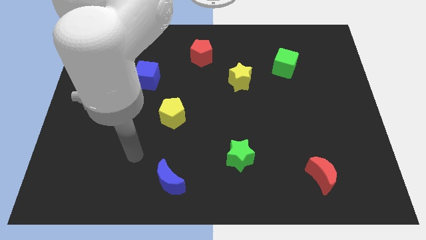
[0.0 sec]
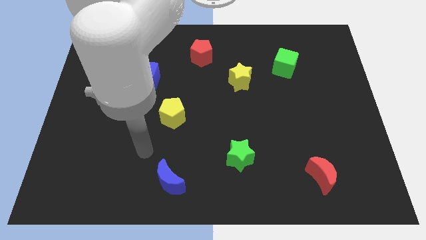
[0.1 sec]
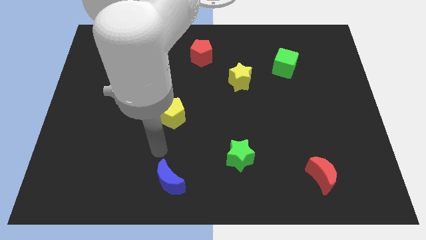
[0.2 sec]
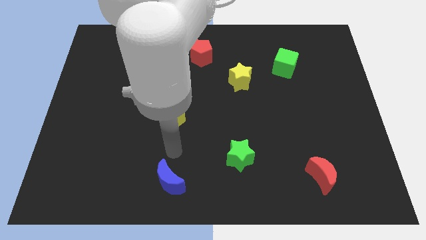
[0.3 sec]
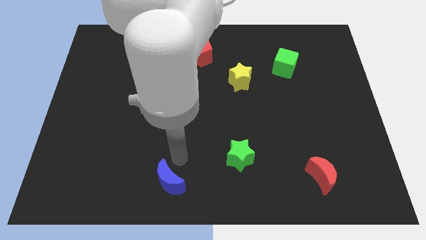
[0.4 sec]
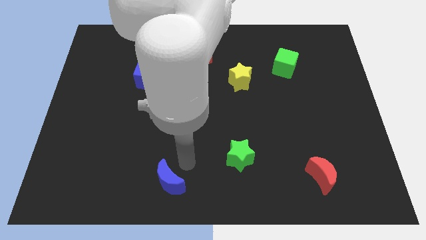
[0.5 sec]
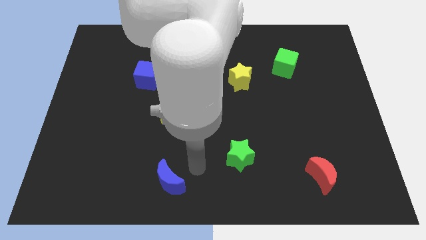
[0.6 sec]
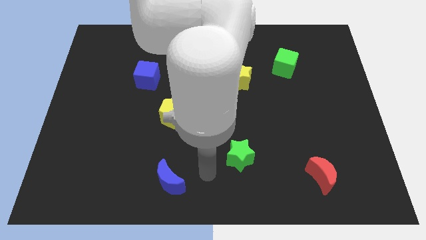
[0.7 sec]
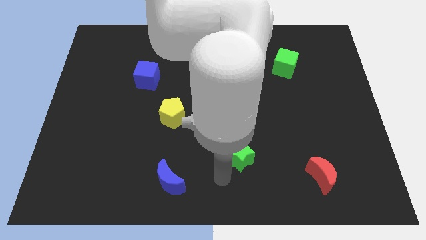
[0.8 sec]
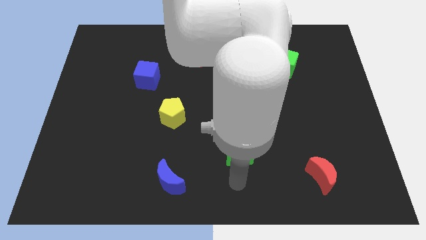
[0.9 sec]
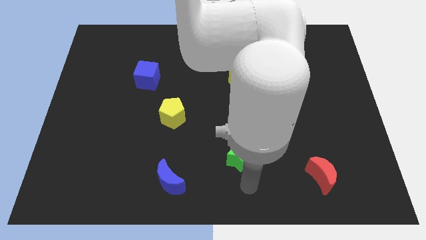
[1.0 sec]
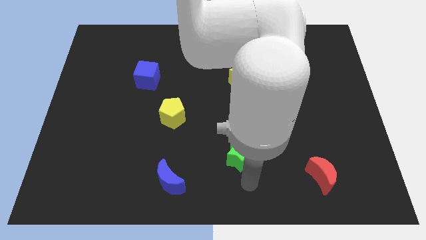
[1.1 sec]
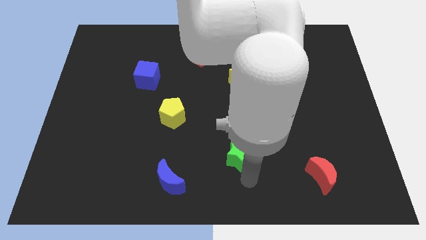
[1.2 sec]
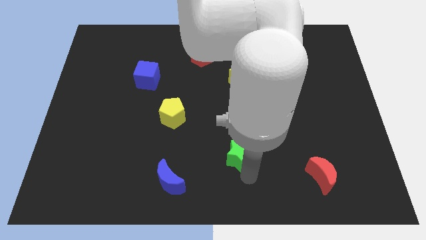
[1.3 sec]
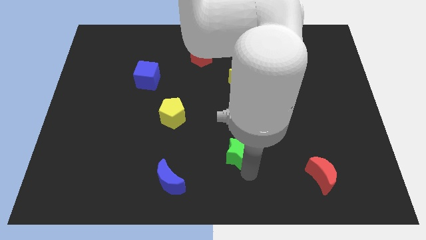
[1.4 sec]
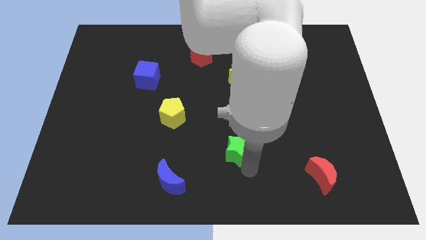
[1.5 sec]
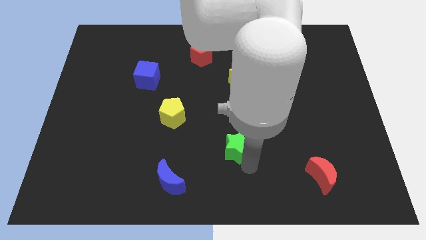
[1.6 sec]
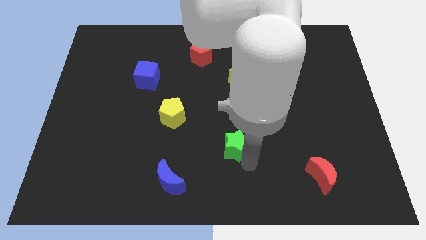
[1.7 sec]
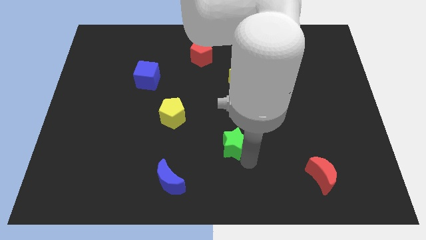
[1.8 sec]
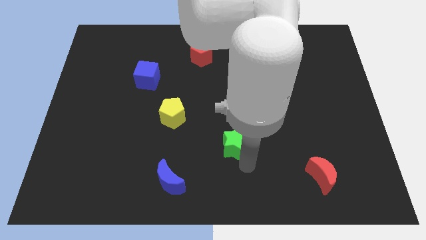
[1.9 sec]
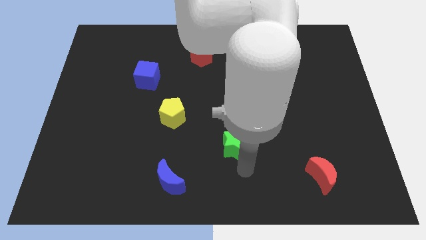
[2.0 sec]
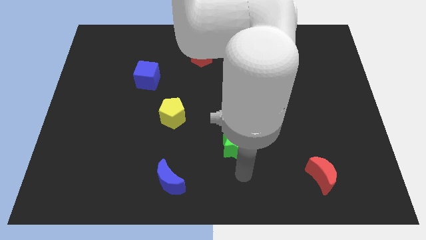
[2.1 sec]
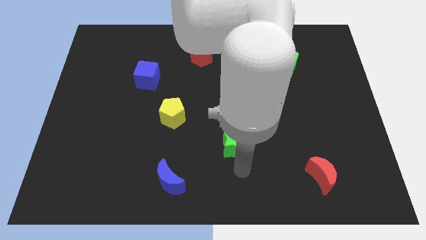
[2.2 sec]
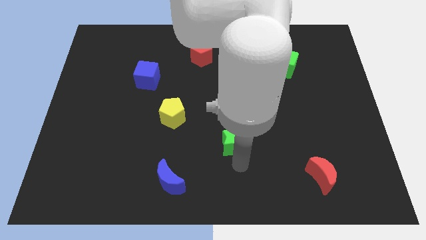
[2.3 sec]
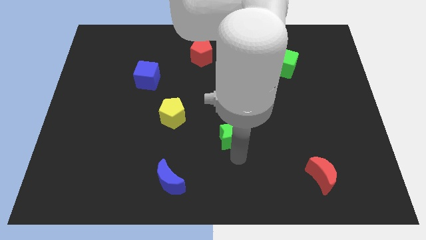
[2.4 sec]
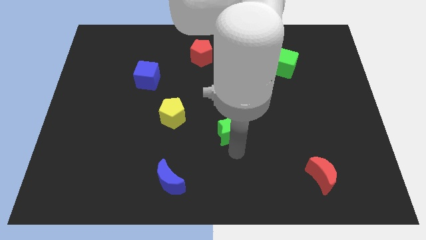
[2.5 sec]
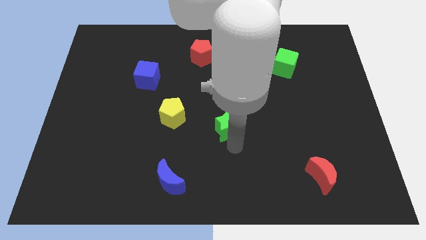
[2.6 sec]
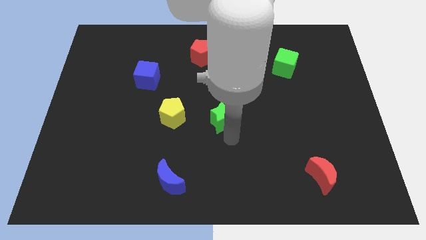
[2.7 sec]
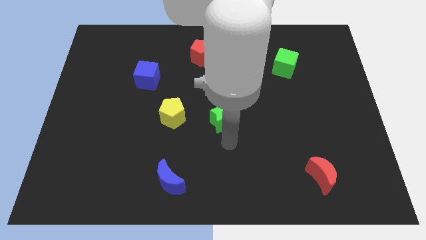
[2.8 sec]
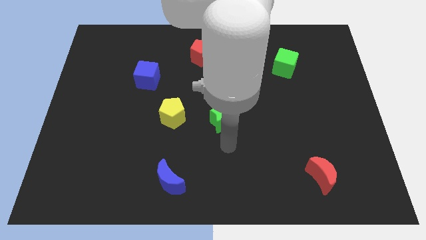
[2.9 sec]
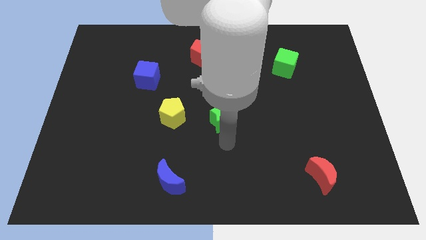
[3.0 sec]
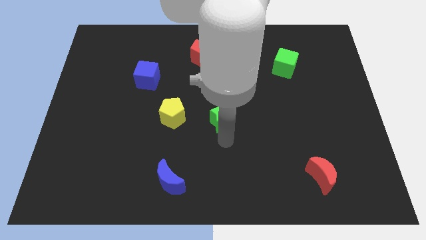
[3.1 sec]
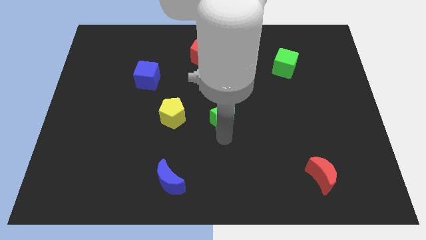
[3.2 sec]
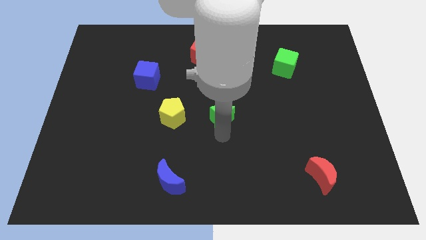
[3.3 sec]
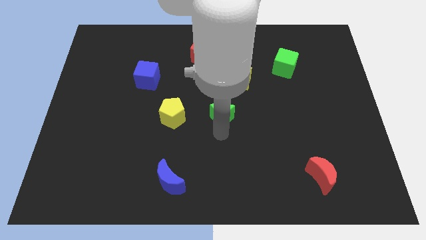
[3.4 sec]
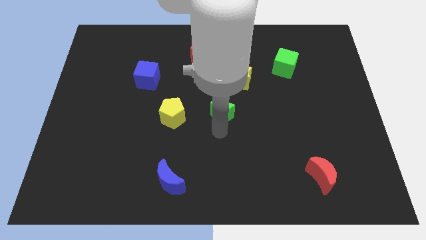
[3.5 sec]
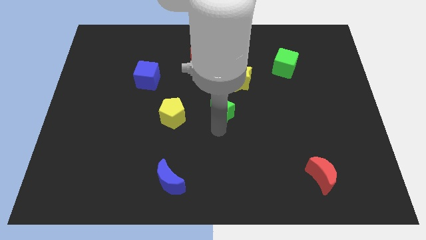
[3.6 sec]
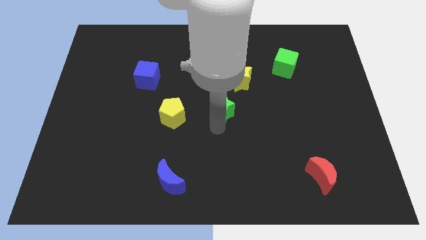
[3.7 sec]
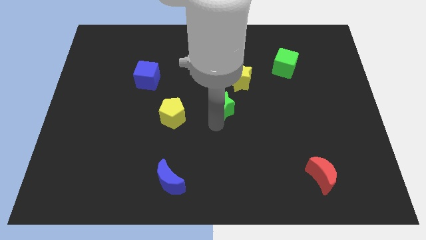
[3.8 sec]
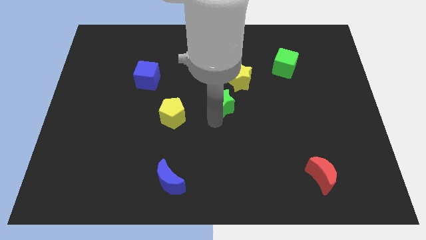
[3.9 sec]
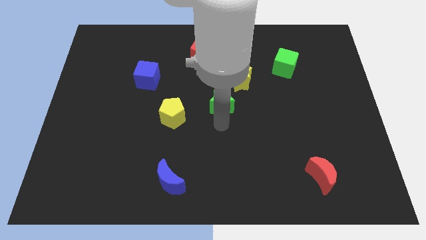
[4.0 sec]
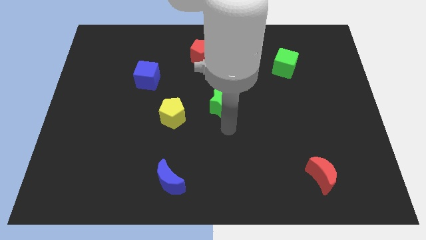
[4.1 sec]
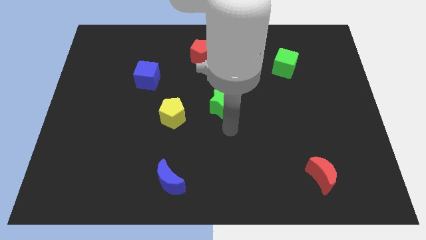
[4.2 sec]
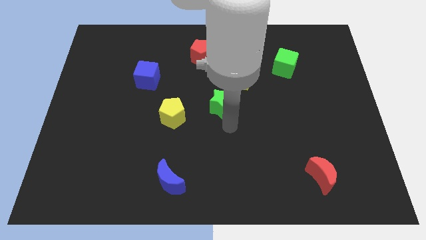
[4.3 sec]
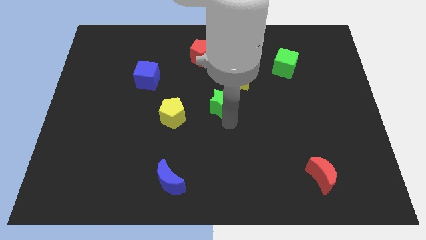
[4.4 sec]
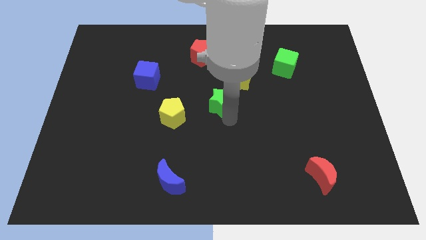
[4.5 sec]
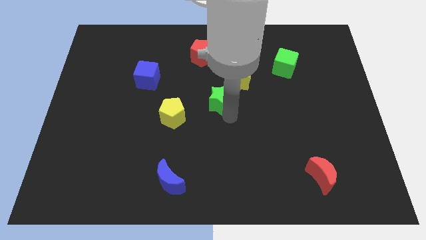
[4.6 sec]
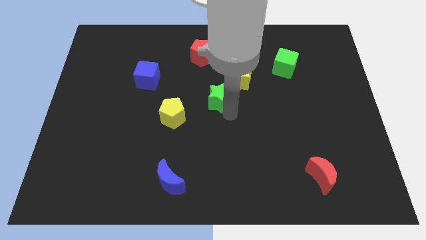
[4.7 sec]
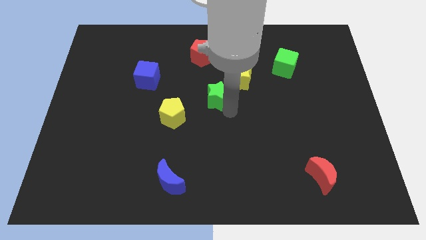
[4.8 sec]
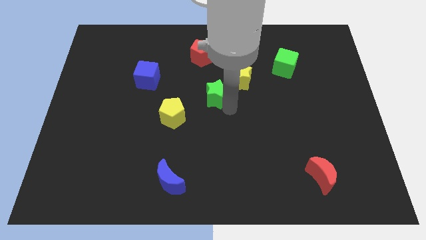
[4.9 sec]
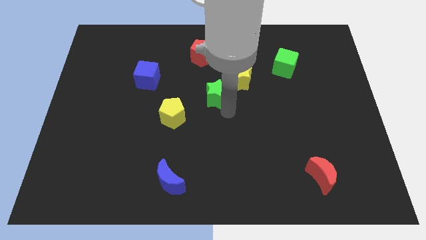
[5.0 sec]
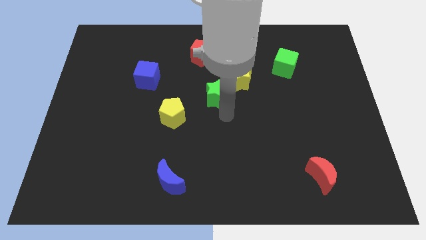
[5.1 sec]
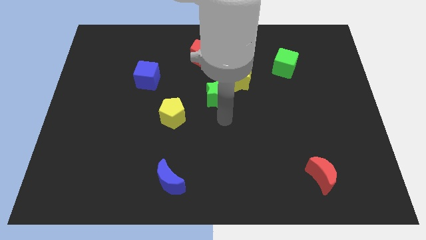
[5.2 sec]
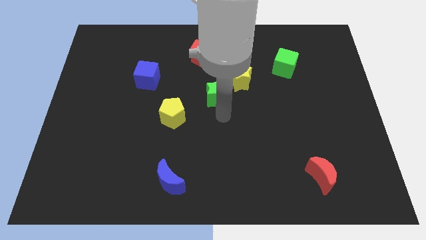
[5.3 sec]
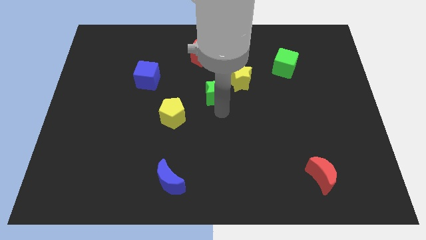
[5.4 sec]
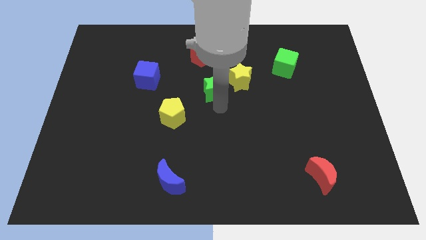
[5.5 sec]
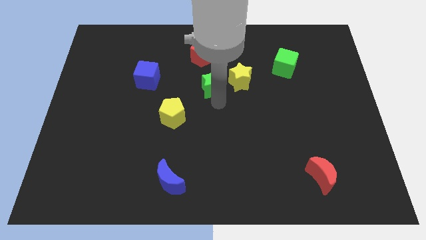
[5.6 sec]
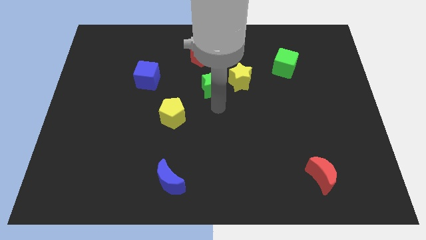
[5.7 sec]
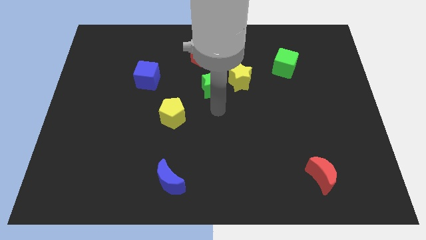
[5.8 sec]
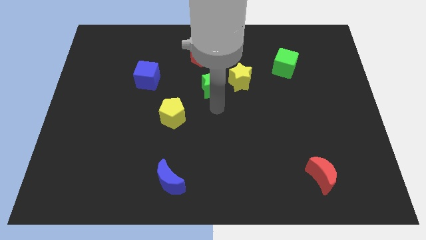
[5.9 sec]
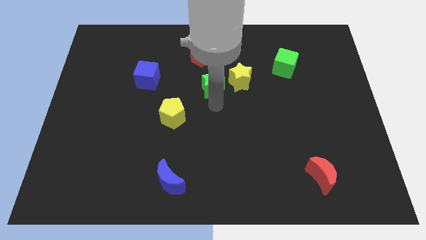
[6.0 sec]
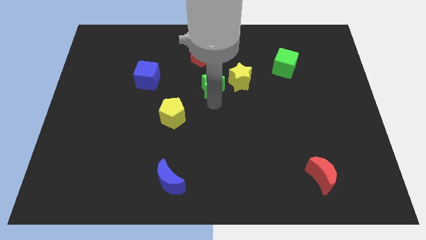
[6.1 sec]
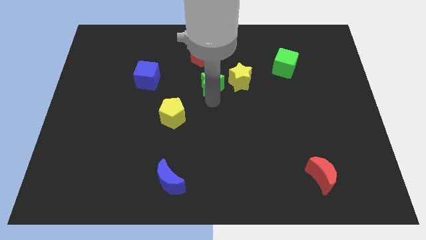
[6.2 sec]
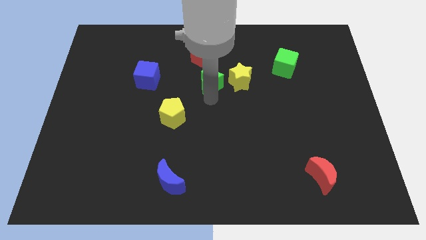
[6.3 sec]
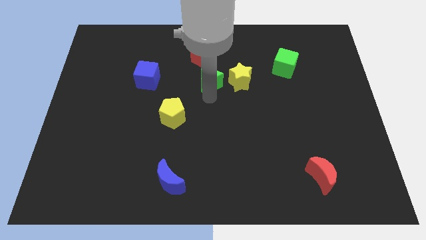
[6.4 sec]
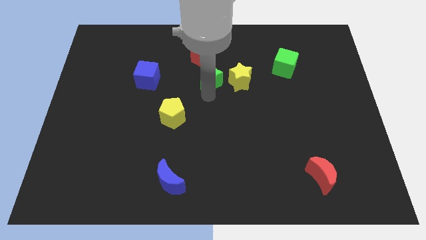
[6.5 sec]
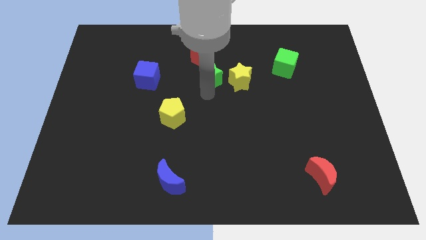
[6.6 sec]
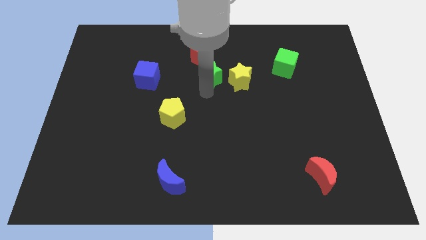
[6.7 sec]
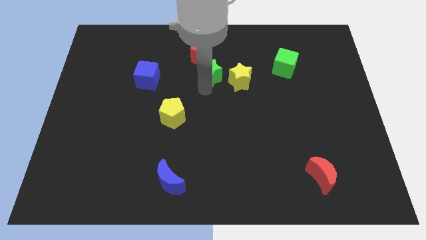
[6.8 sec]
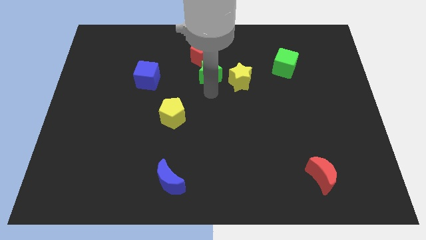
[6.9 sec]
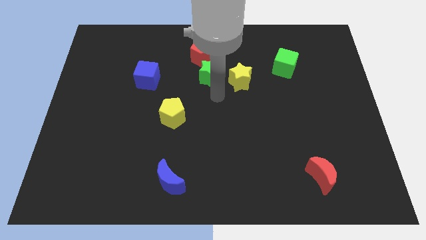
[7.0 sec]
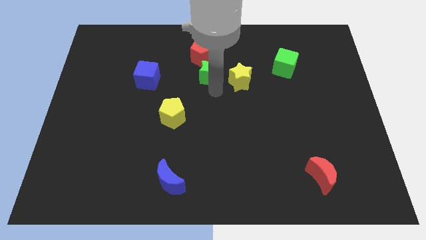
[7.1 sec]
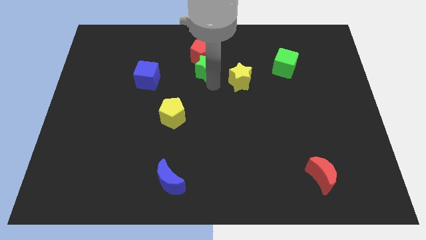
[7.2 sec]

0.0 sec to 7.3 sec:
move the green star close to the red pentagon

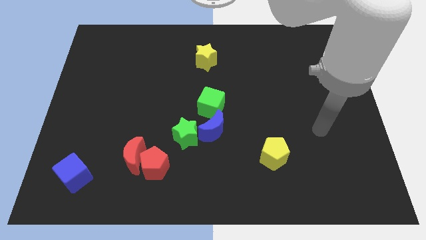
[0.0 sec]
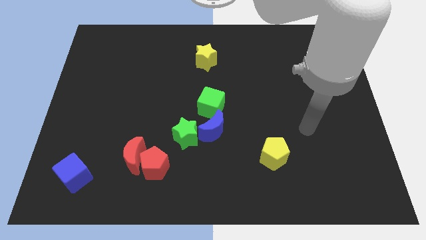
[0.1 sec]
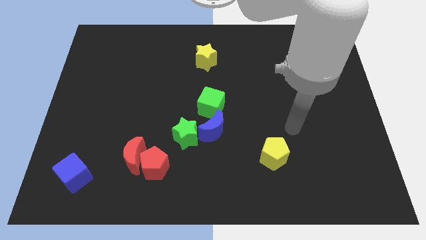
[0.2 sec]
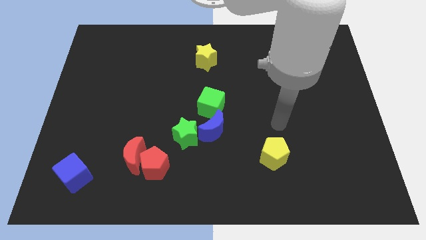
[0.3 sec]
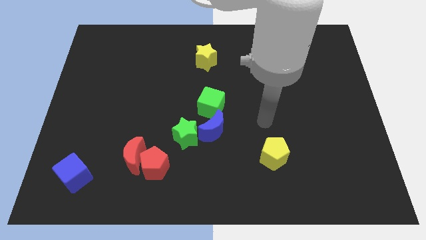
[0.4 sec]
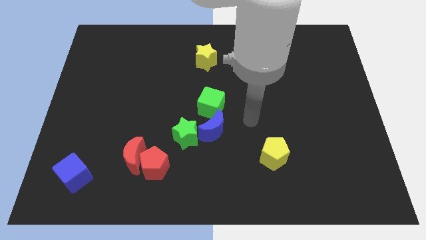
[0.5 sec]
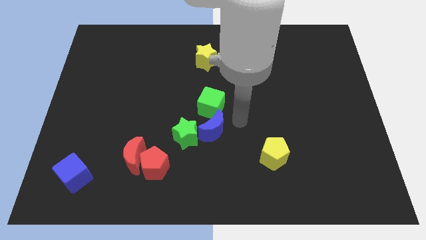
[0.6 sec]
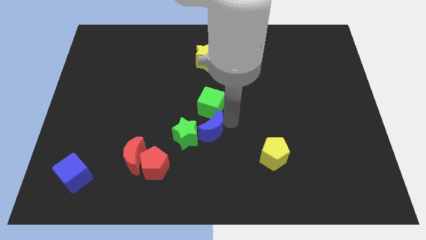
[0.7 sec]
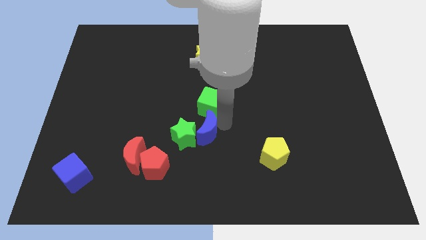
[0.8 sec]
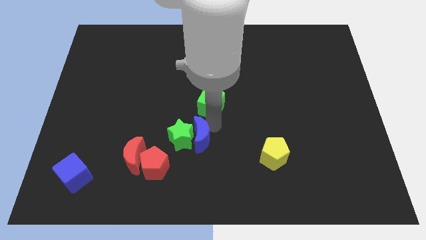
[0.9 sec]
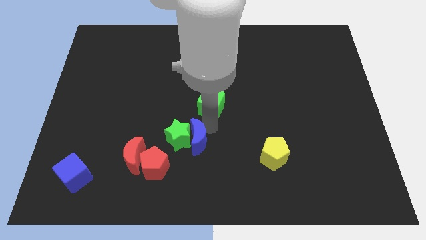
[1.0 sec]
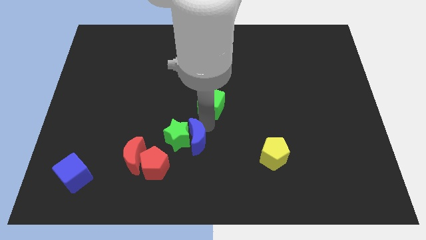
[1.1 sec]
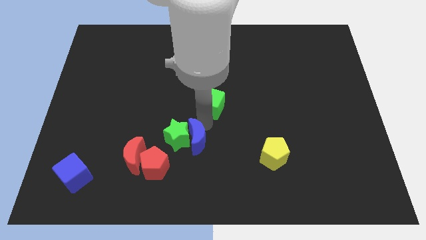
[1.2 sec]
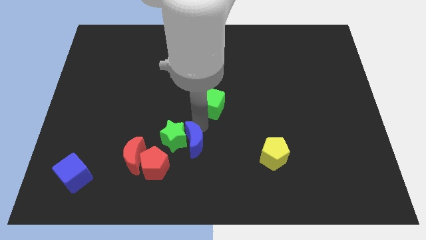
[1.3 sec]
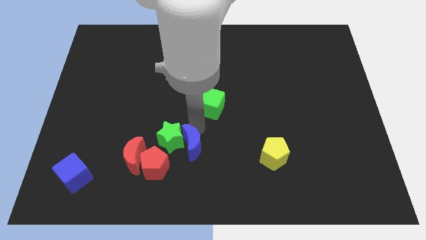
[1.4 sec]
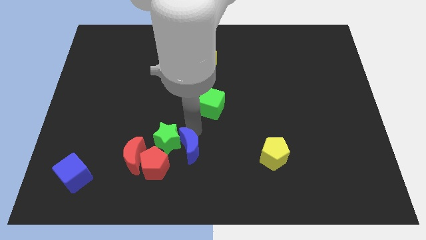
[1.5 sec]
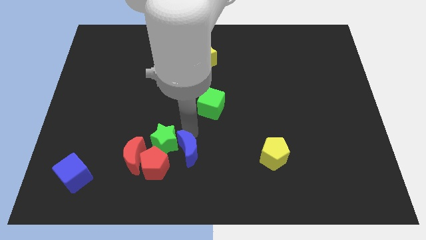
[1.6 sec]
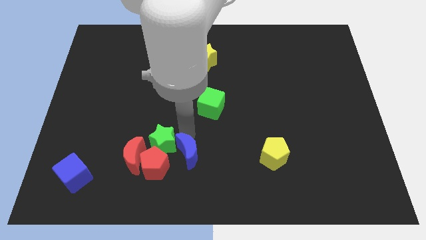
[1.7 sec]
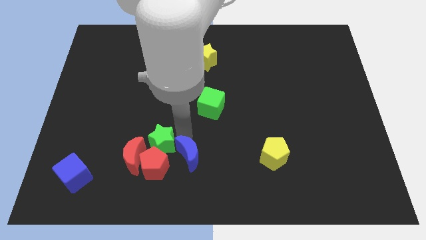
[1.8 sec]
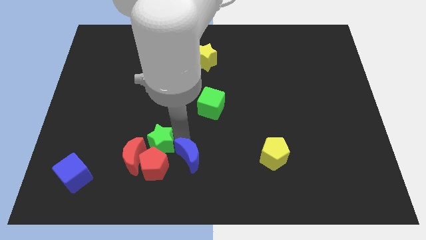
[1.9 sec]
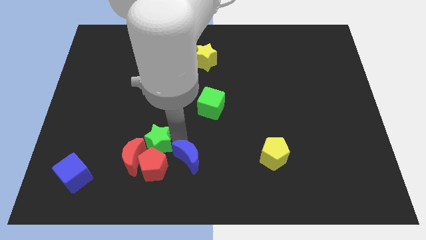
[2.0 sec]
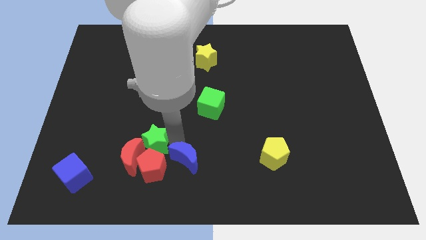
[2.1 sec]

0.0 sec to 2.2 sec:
push the green star next to the red moon
